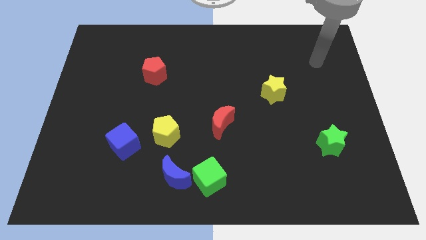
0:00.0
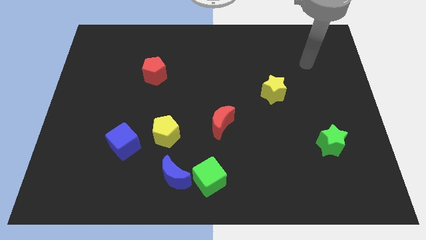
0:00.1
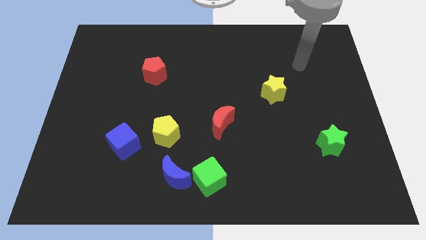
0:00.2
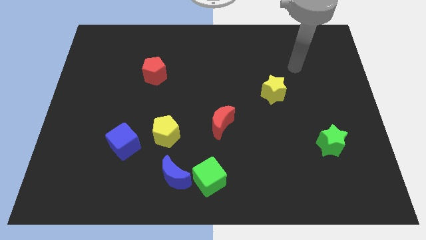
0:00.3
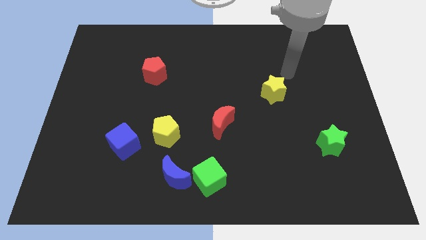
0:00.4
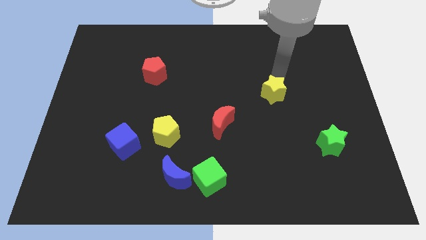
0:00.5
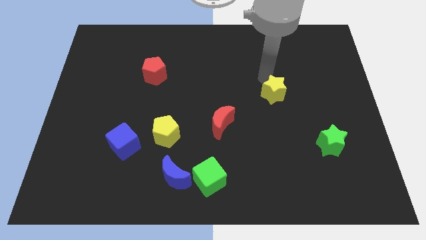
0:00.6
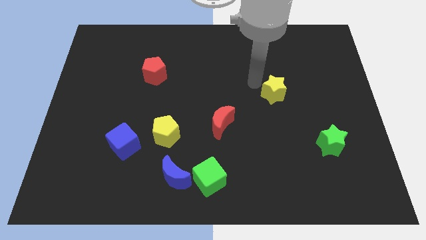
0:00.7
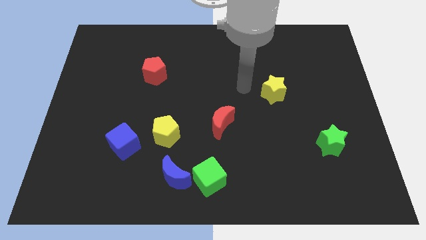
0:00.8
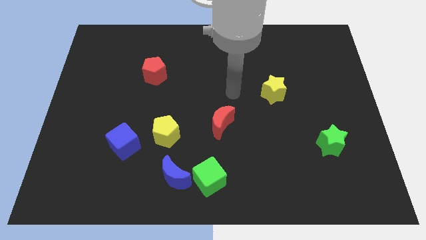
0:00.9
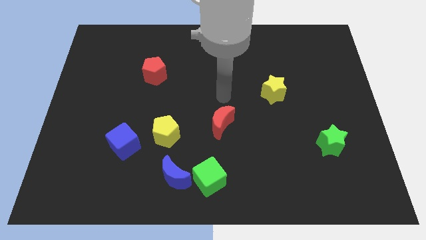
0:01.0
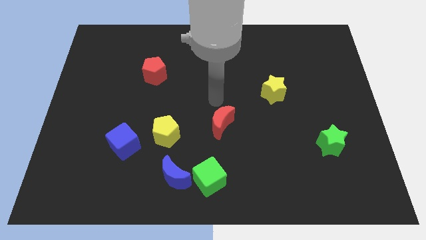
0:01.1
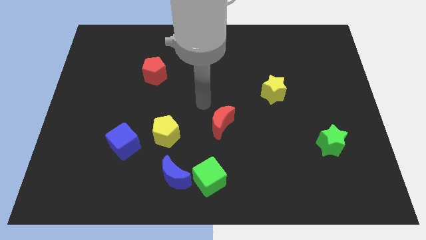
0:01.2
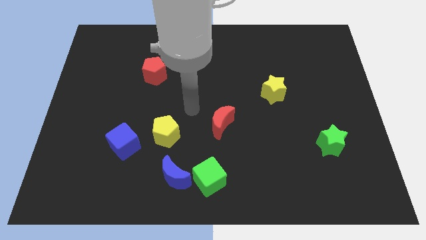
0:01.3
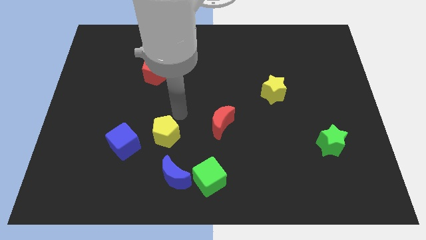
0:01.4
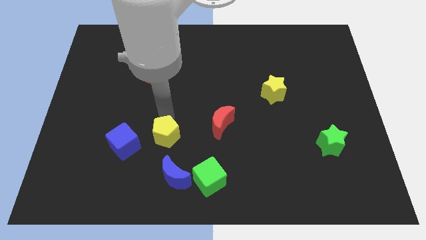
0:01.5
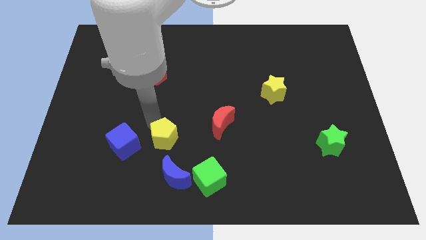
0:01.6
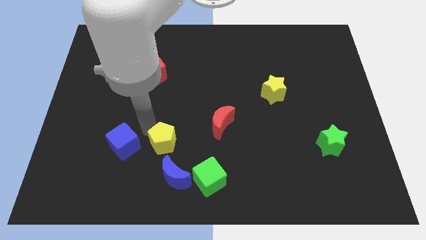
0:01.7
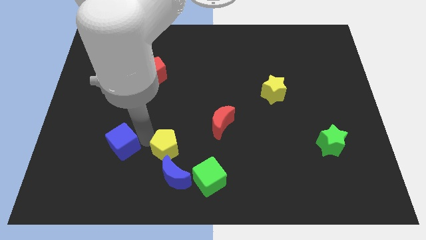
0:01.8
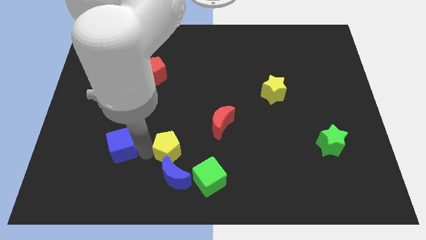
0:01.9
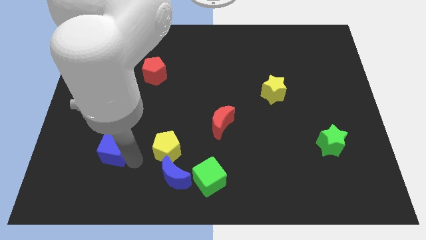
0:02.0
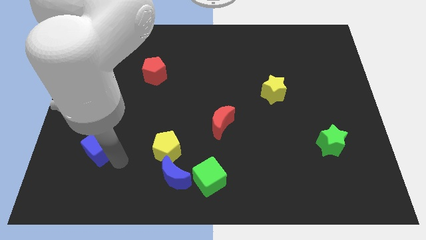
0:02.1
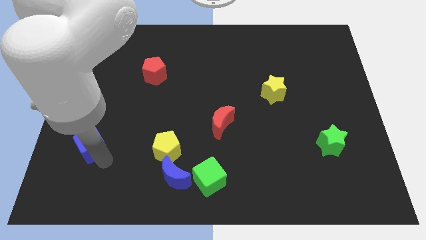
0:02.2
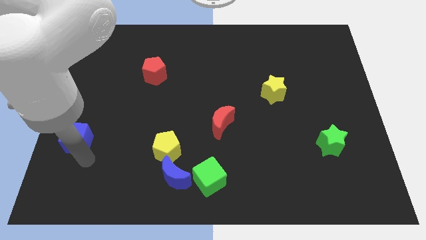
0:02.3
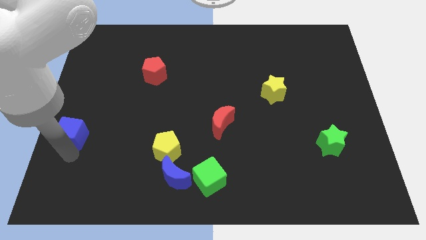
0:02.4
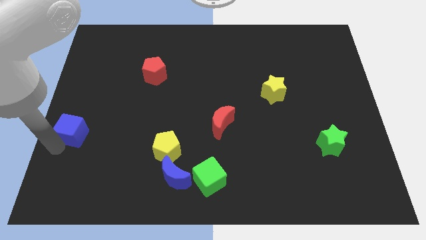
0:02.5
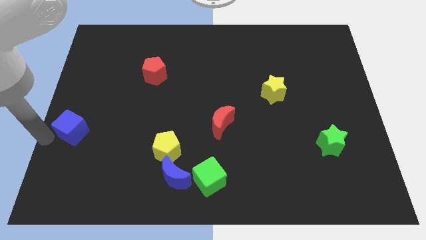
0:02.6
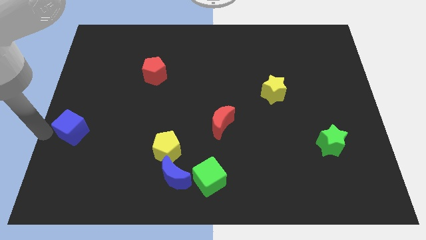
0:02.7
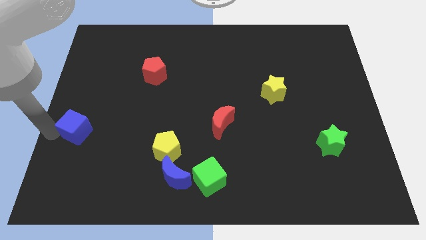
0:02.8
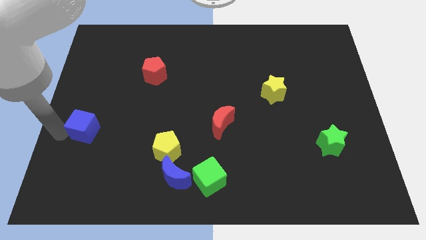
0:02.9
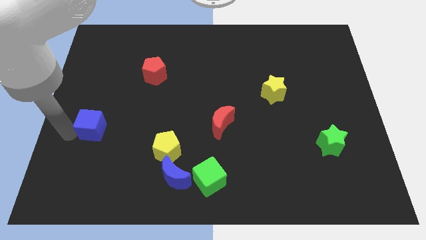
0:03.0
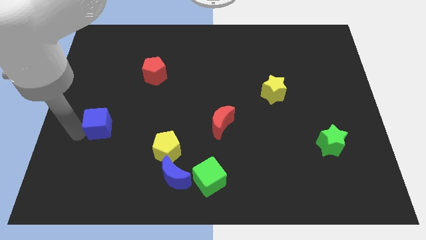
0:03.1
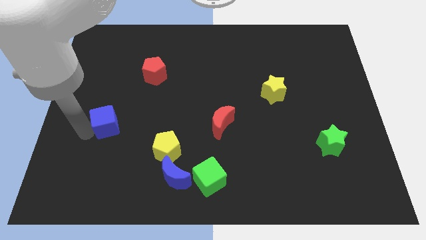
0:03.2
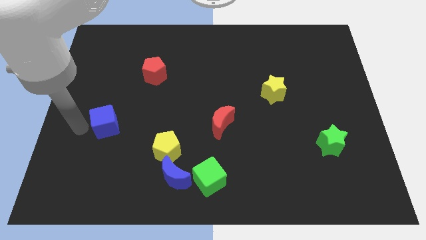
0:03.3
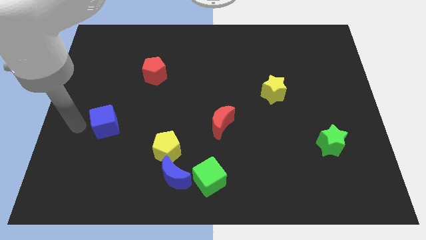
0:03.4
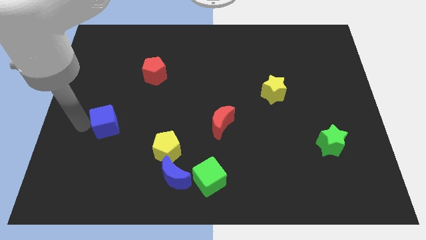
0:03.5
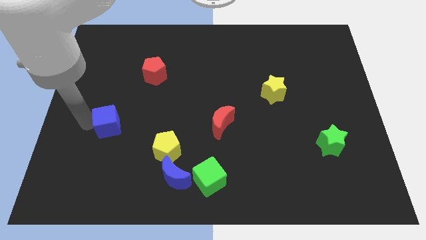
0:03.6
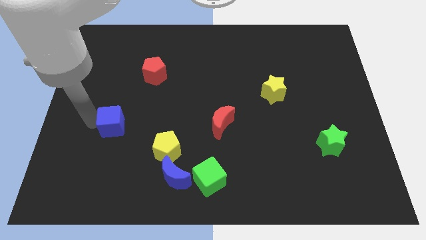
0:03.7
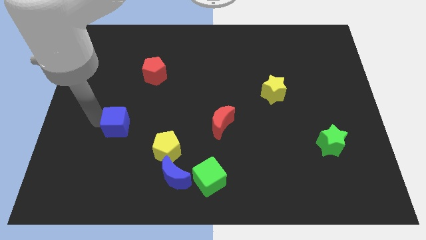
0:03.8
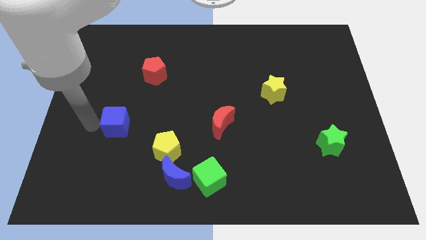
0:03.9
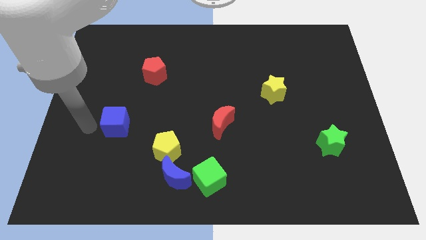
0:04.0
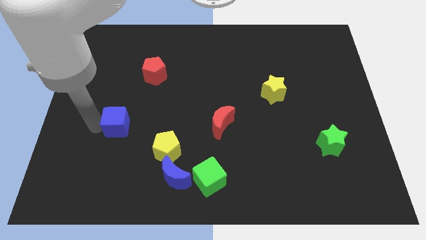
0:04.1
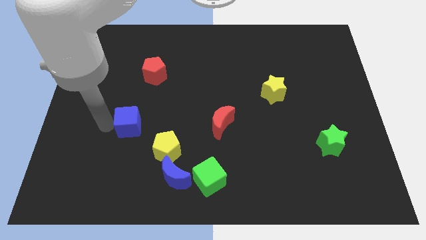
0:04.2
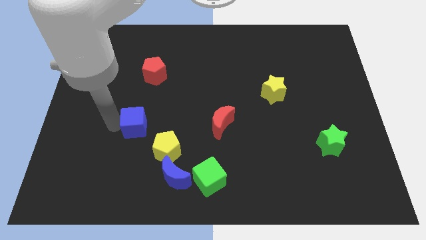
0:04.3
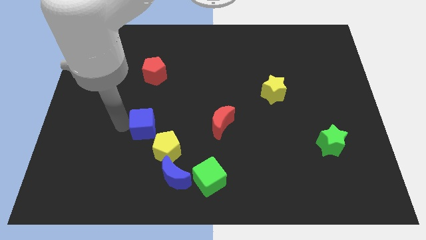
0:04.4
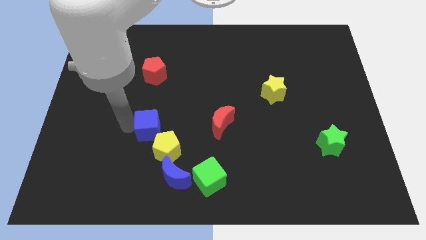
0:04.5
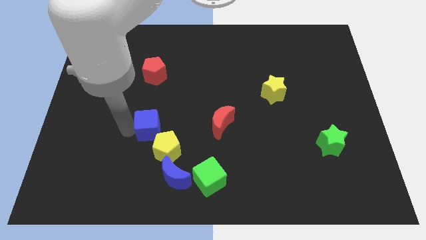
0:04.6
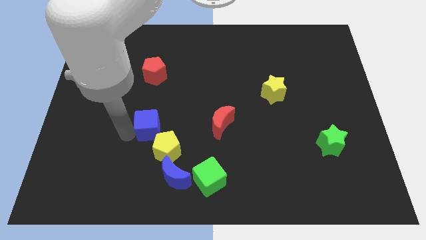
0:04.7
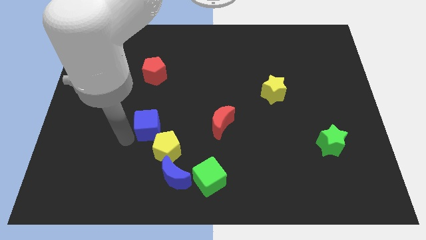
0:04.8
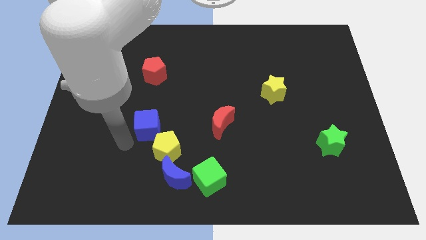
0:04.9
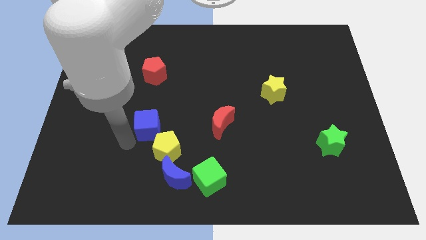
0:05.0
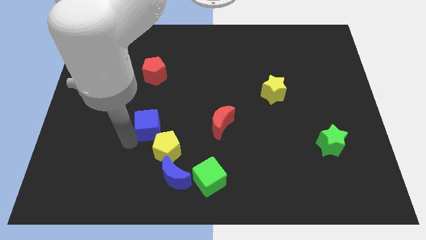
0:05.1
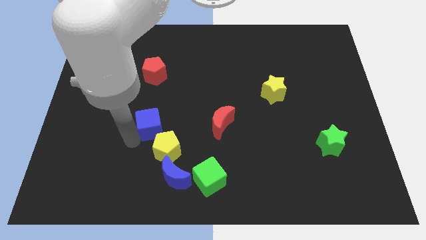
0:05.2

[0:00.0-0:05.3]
slightly slide the blue cube diagonally up and to the right

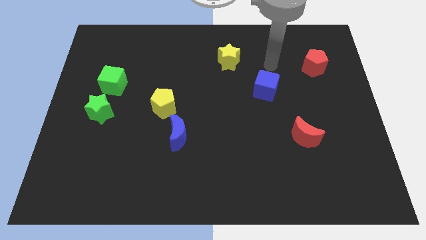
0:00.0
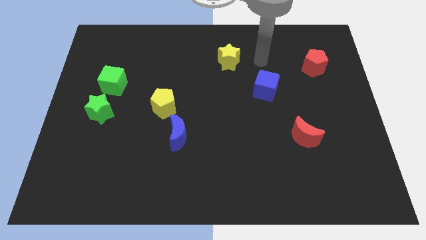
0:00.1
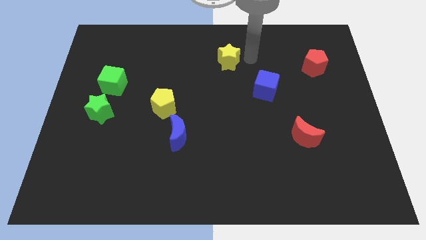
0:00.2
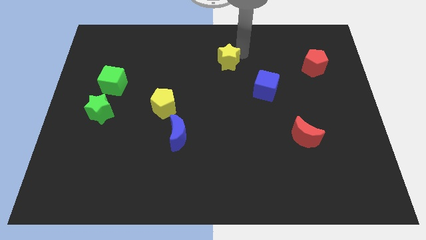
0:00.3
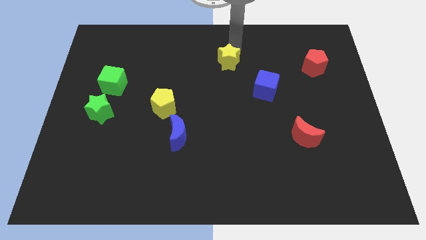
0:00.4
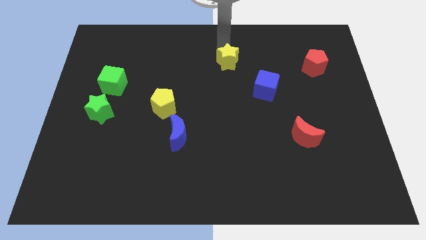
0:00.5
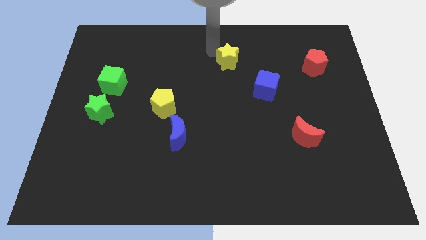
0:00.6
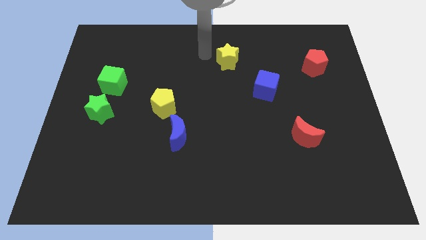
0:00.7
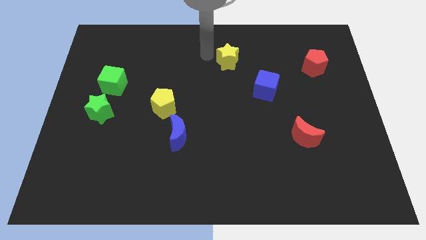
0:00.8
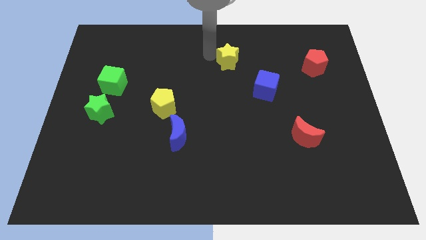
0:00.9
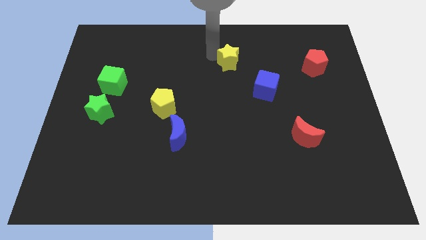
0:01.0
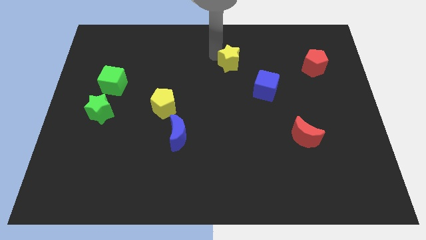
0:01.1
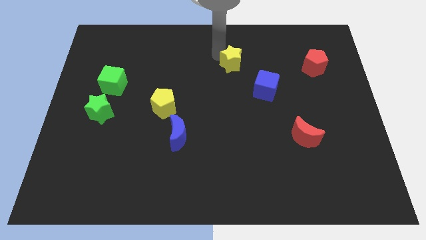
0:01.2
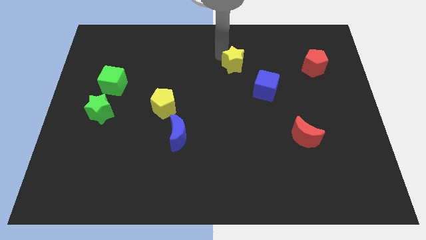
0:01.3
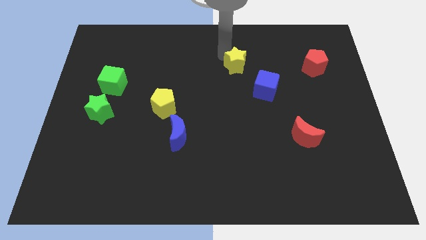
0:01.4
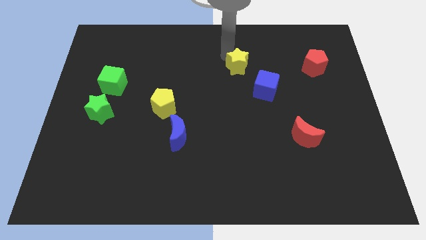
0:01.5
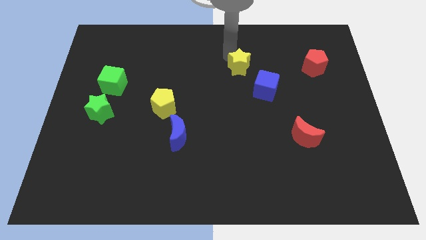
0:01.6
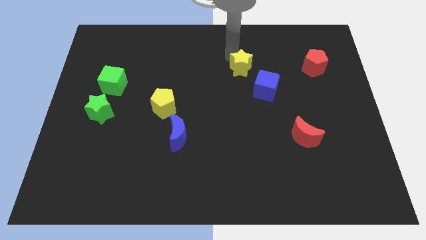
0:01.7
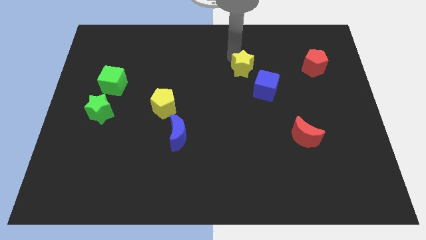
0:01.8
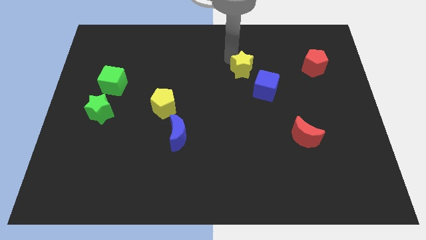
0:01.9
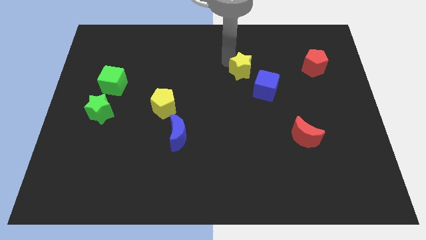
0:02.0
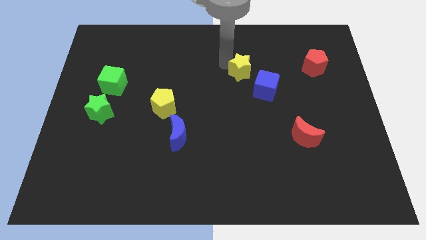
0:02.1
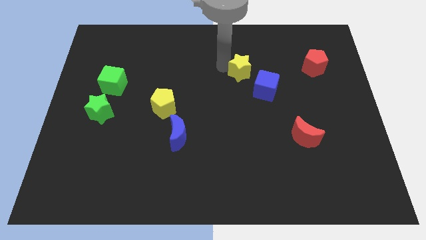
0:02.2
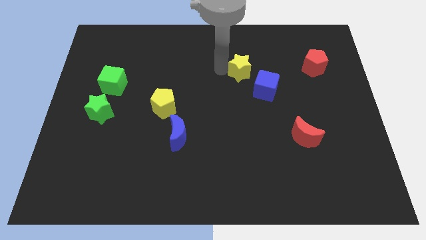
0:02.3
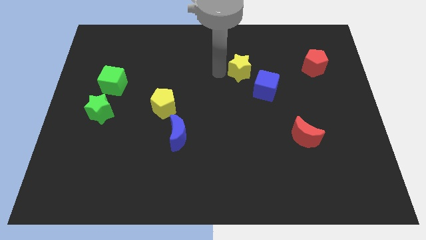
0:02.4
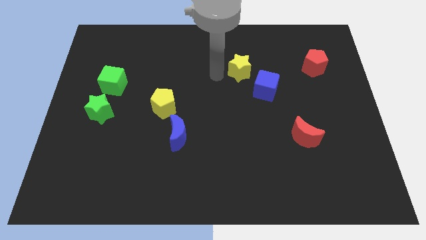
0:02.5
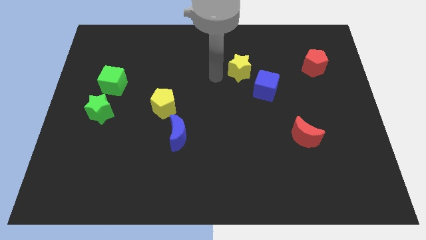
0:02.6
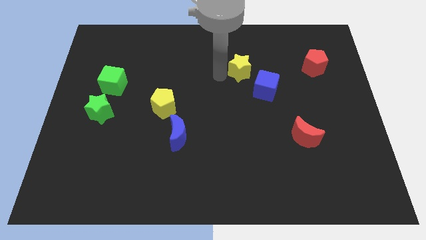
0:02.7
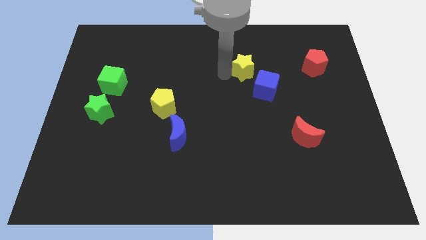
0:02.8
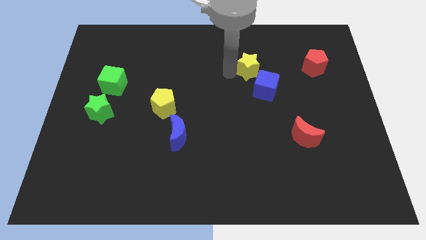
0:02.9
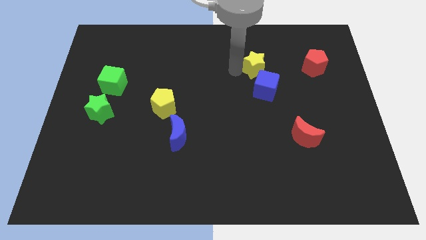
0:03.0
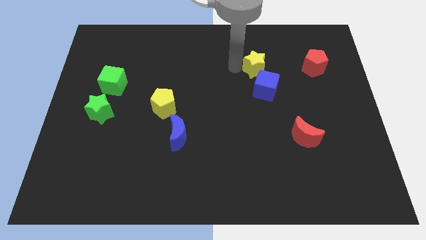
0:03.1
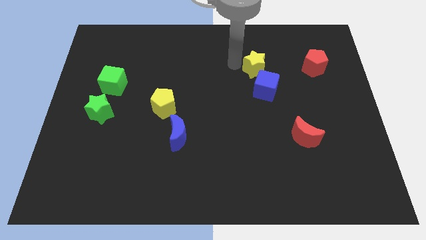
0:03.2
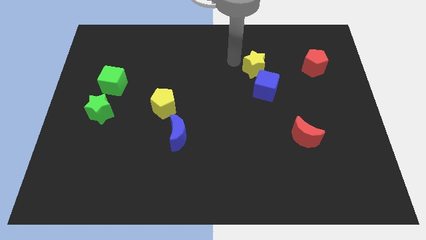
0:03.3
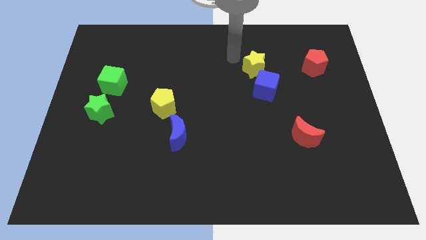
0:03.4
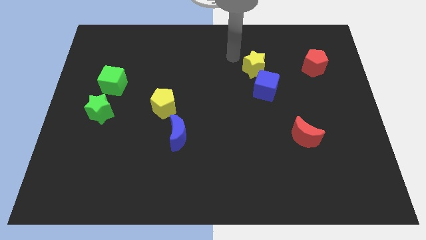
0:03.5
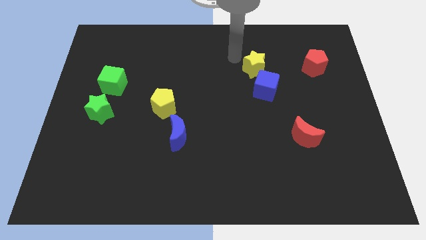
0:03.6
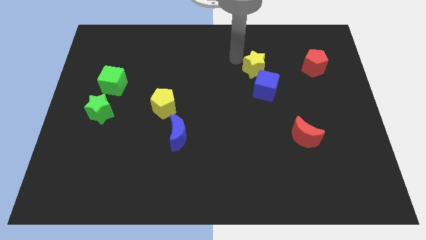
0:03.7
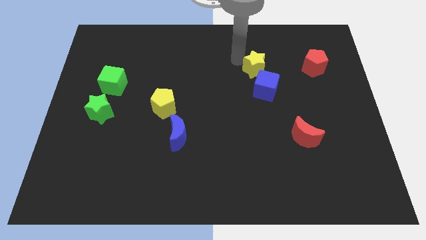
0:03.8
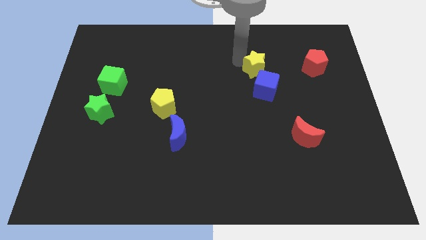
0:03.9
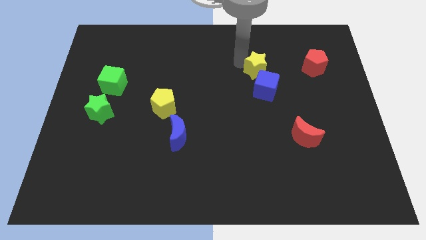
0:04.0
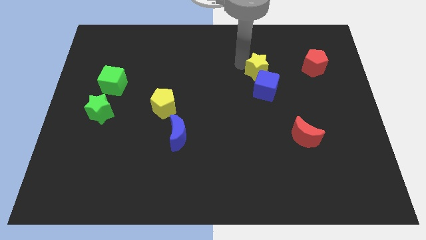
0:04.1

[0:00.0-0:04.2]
move the yellow star down and then right somewhat
